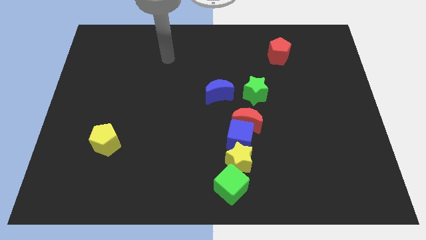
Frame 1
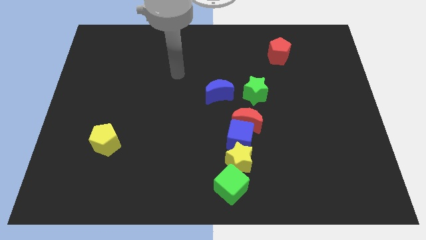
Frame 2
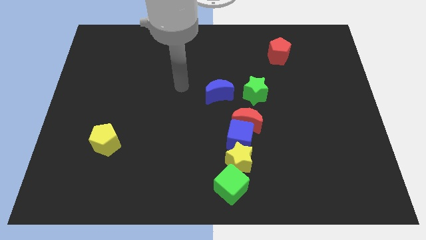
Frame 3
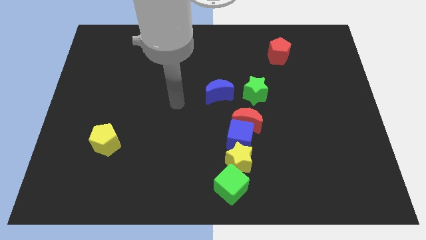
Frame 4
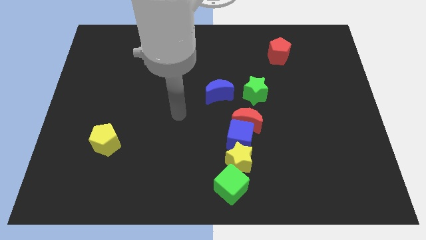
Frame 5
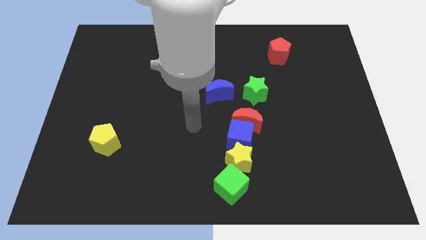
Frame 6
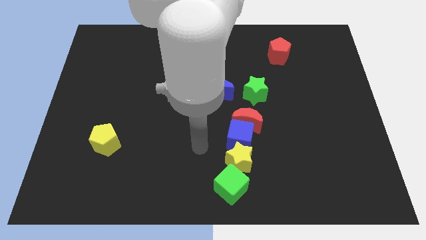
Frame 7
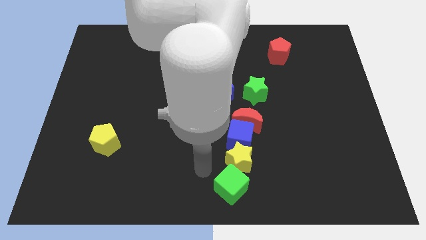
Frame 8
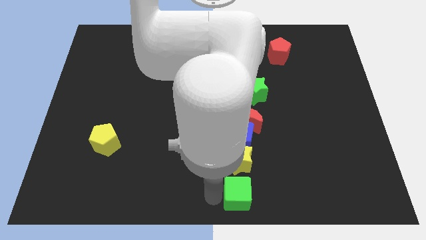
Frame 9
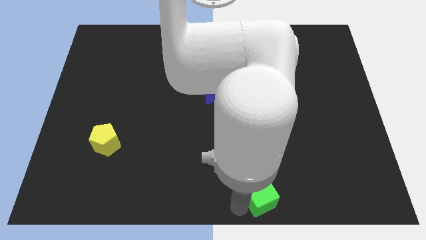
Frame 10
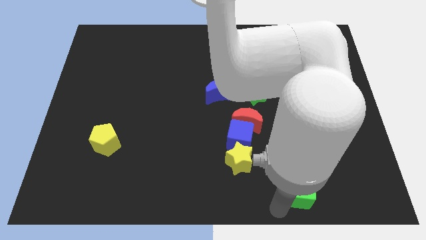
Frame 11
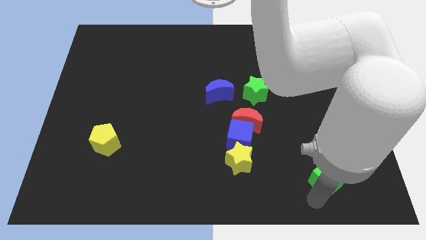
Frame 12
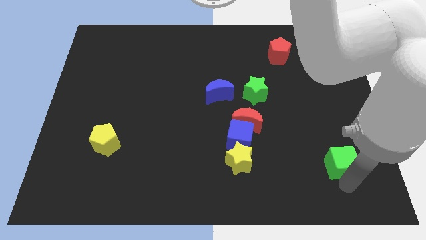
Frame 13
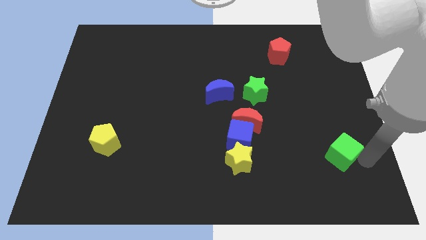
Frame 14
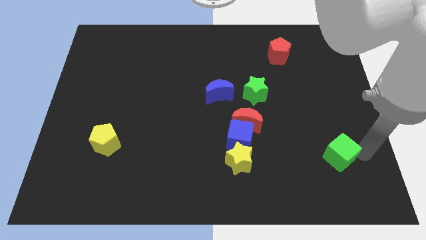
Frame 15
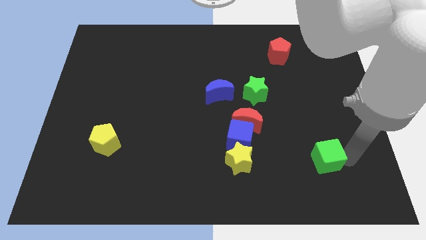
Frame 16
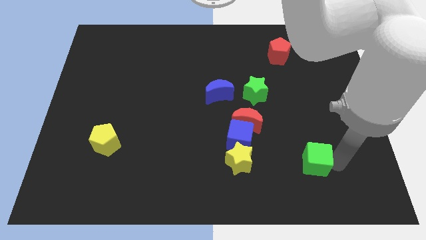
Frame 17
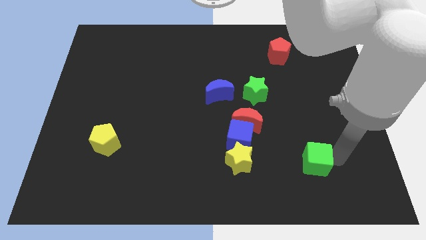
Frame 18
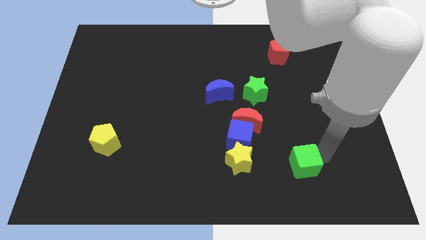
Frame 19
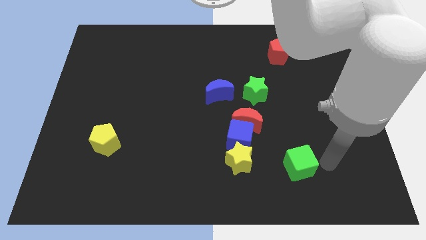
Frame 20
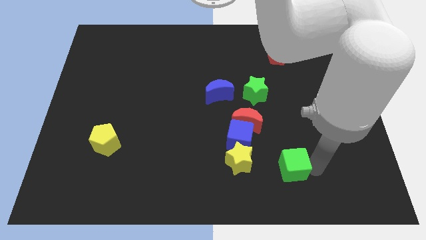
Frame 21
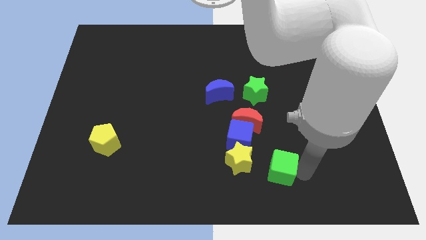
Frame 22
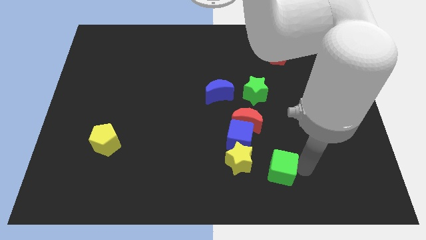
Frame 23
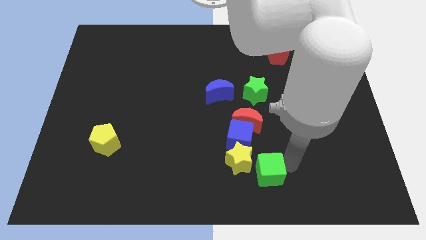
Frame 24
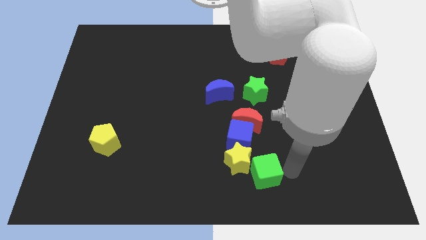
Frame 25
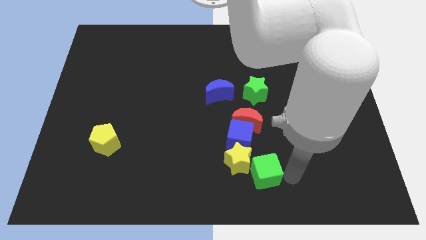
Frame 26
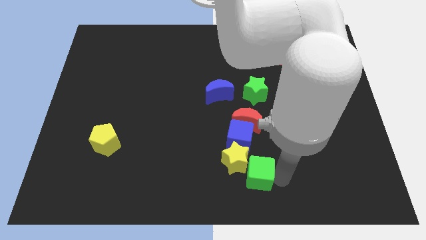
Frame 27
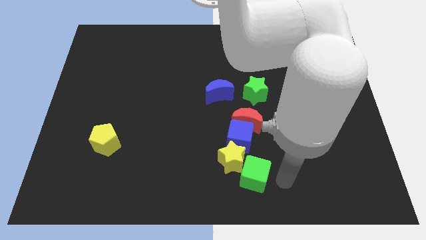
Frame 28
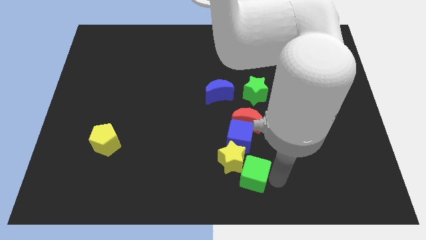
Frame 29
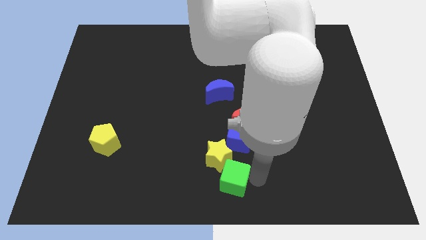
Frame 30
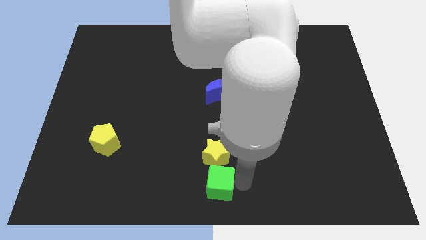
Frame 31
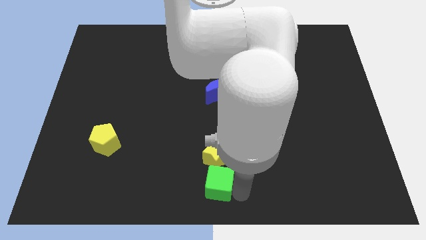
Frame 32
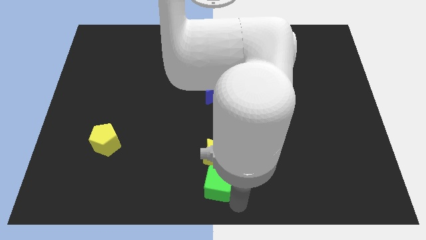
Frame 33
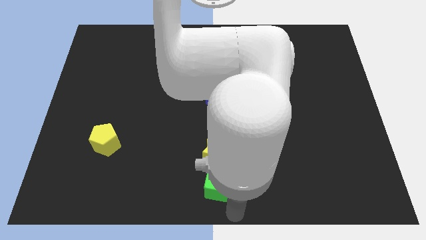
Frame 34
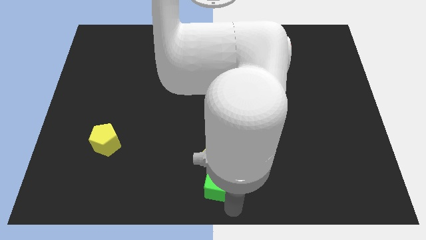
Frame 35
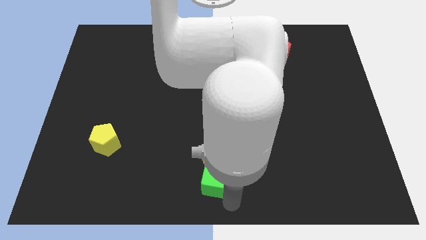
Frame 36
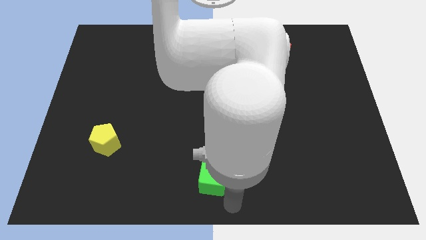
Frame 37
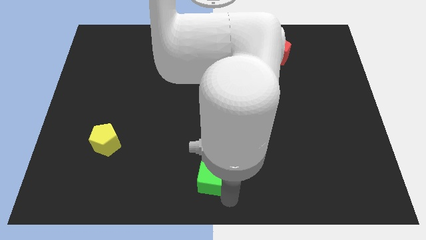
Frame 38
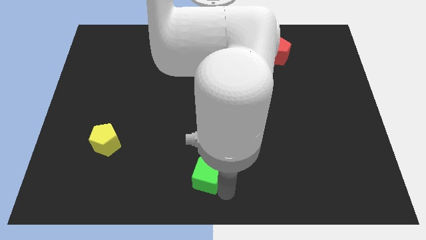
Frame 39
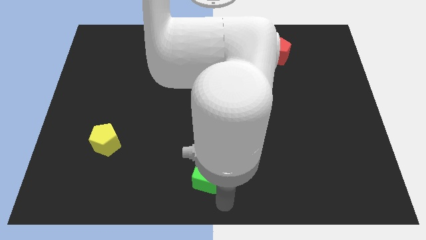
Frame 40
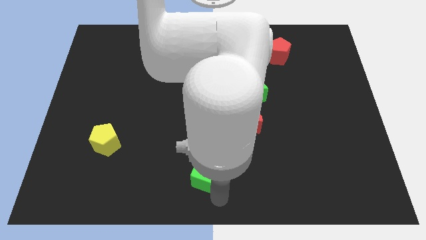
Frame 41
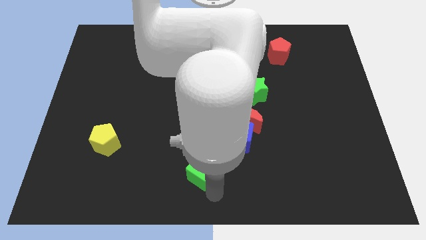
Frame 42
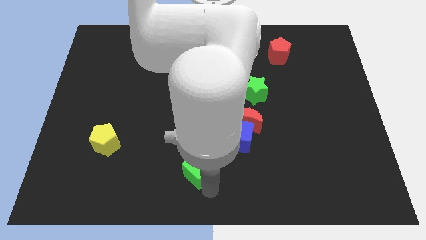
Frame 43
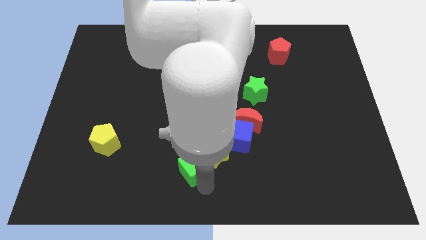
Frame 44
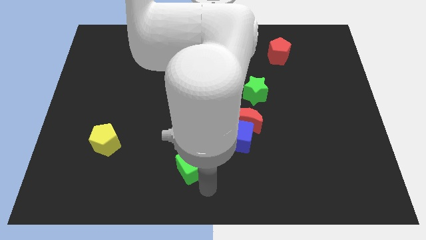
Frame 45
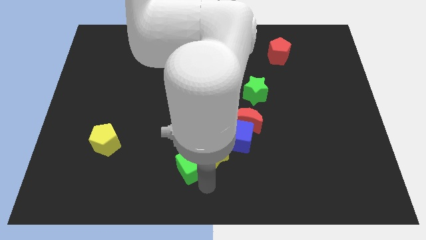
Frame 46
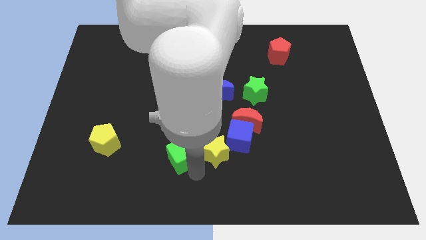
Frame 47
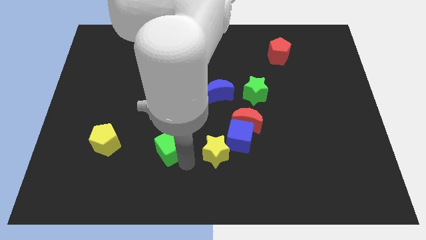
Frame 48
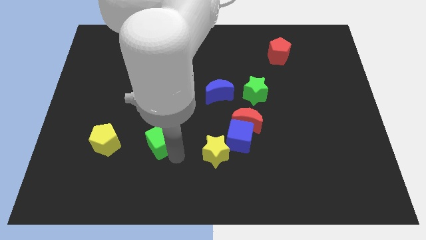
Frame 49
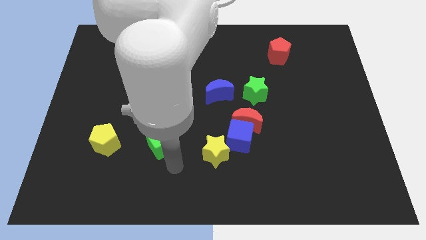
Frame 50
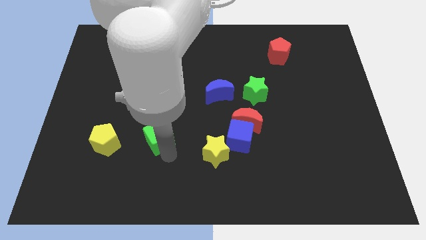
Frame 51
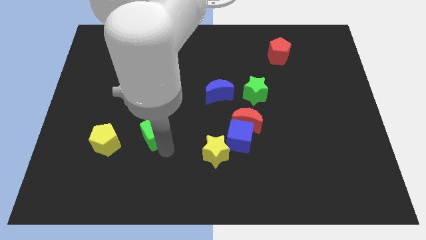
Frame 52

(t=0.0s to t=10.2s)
slide the green cube diagonally upwards and to the left

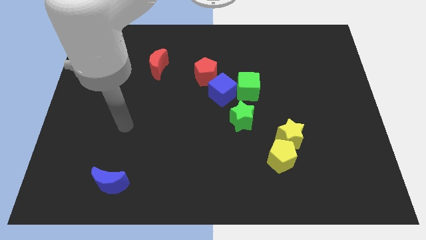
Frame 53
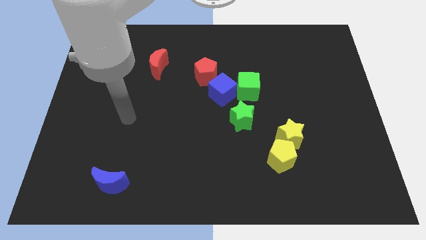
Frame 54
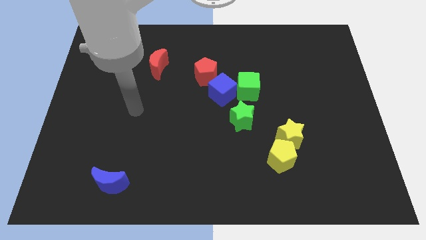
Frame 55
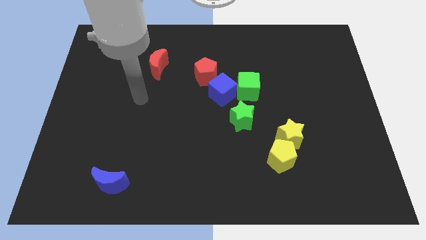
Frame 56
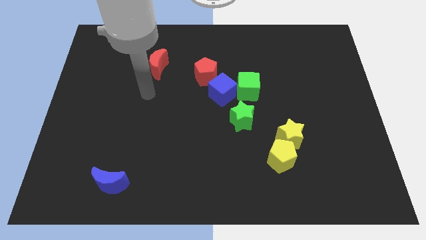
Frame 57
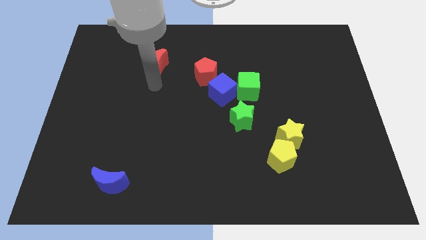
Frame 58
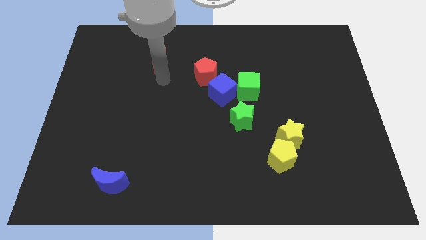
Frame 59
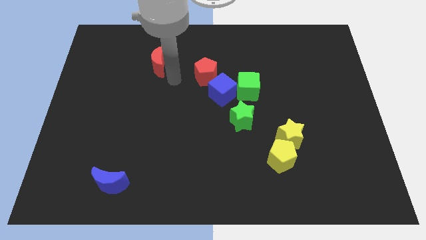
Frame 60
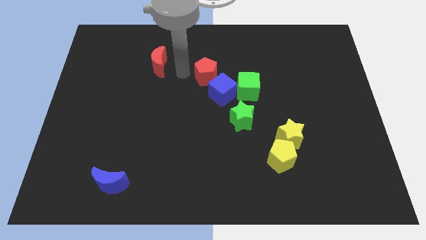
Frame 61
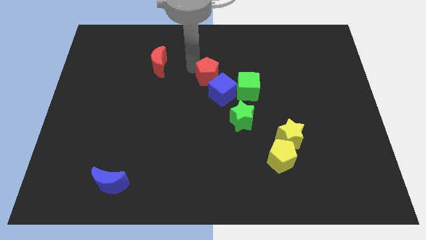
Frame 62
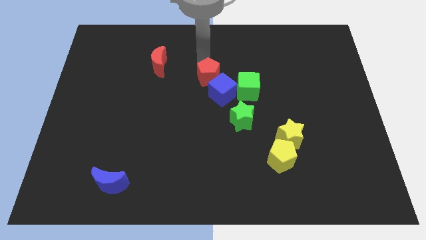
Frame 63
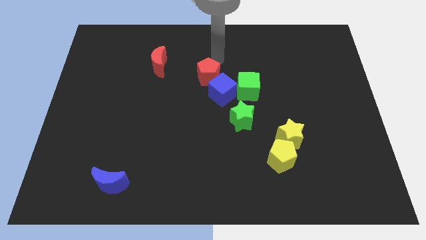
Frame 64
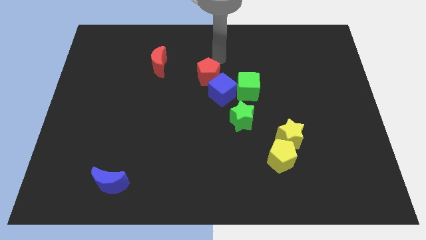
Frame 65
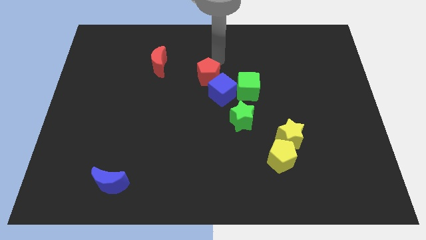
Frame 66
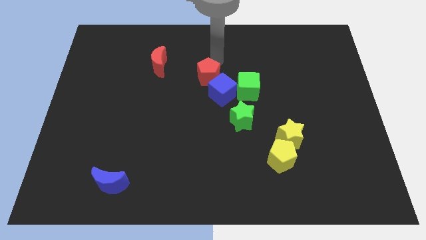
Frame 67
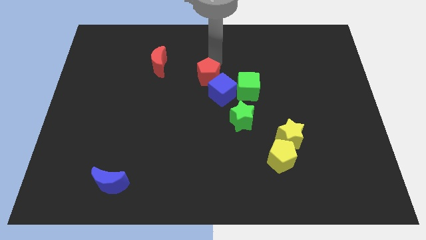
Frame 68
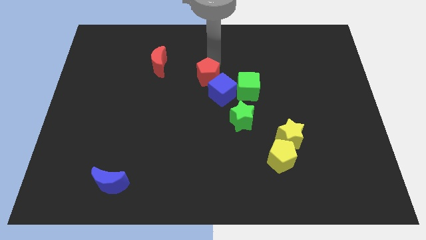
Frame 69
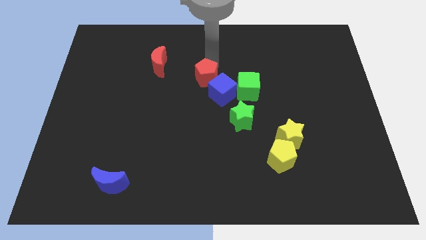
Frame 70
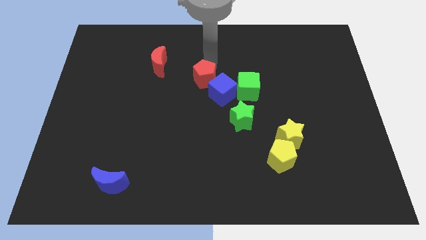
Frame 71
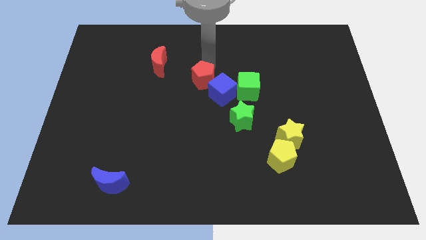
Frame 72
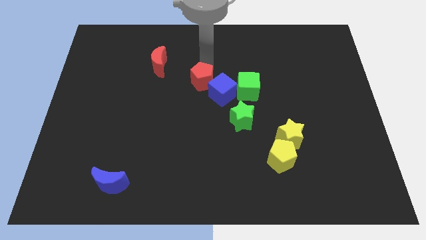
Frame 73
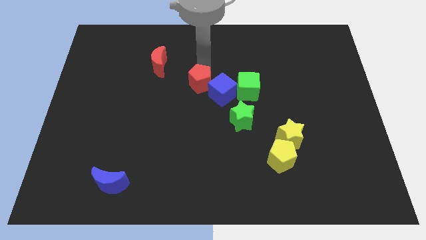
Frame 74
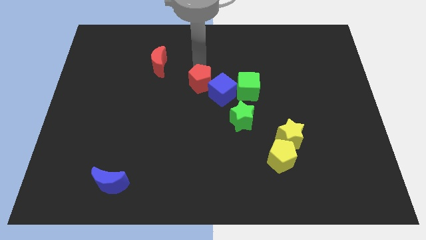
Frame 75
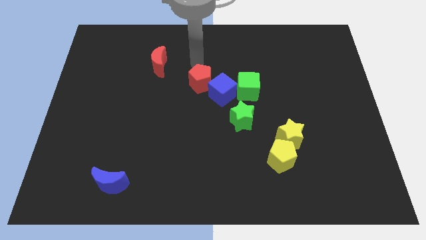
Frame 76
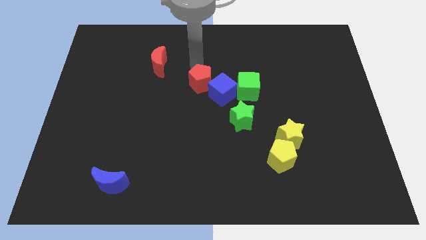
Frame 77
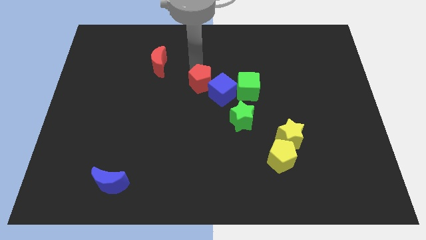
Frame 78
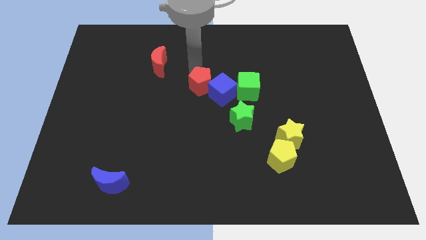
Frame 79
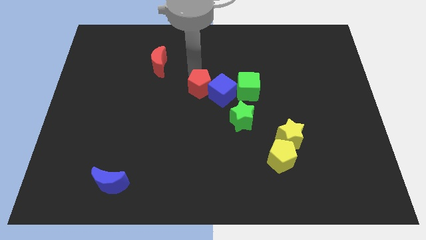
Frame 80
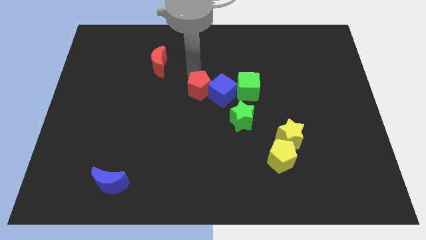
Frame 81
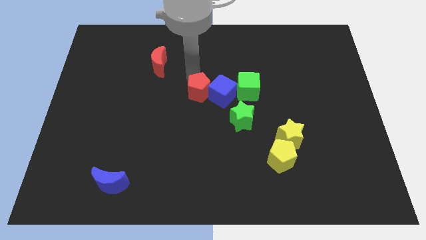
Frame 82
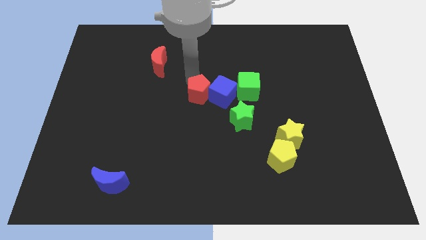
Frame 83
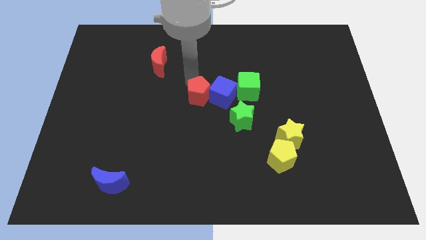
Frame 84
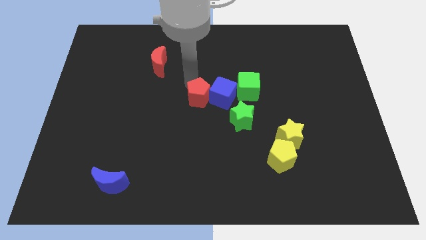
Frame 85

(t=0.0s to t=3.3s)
slightly push the red pentagon downwards
